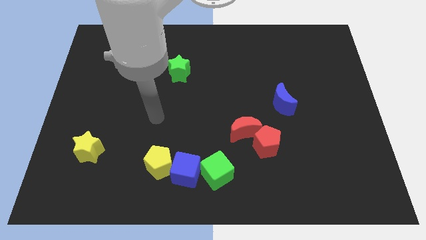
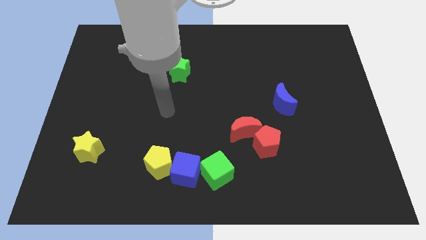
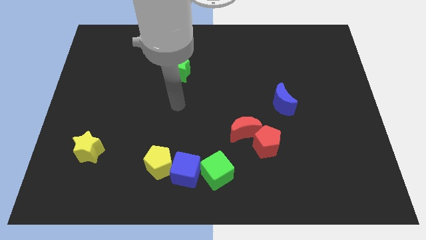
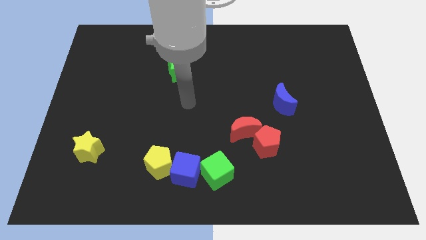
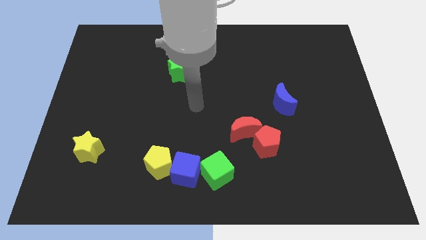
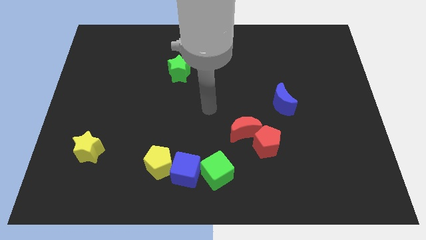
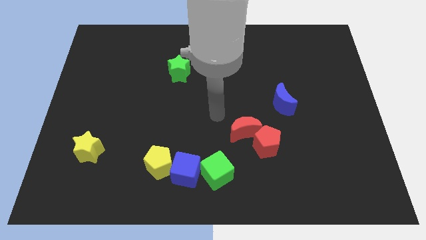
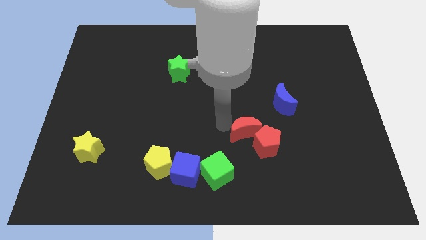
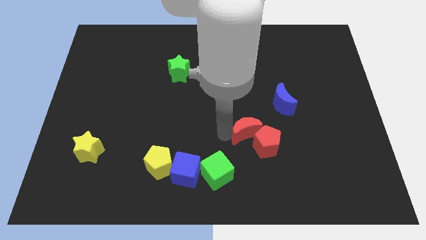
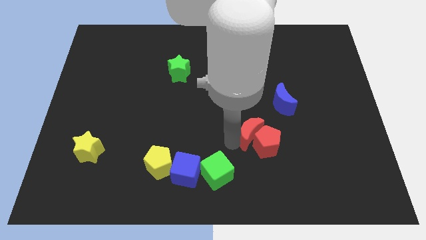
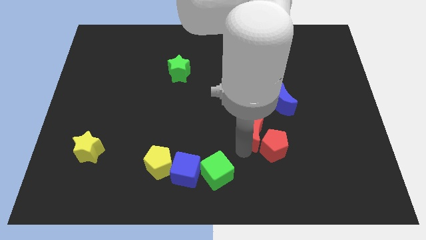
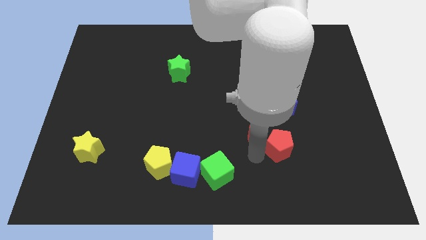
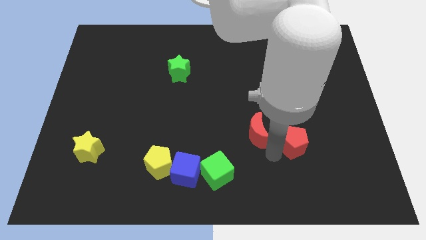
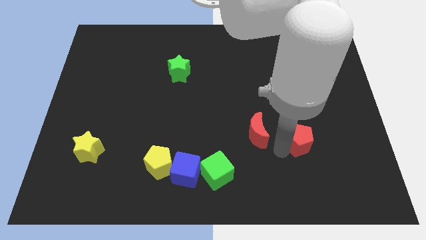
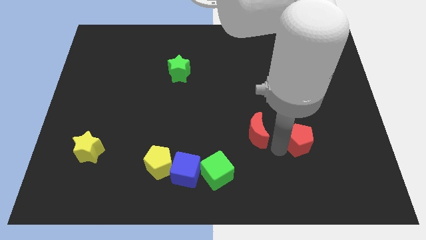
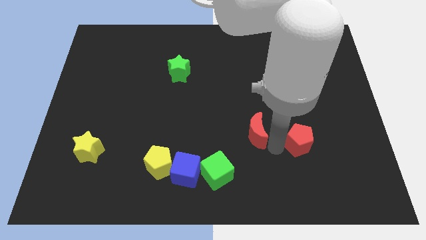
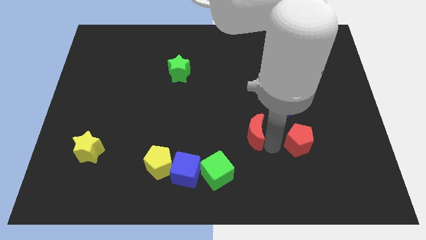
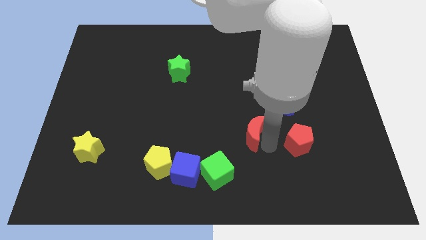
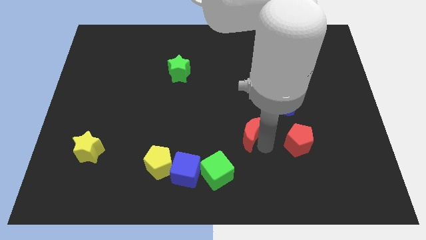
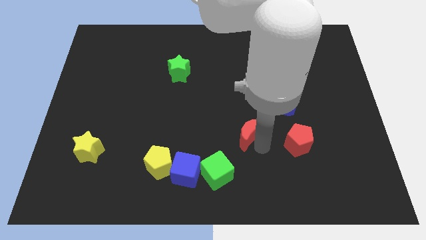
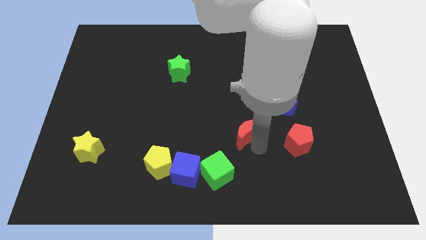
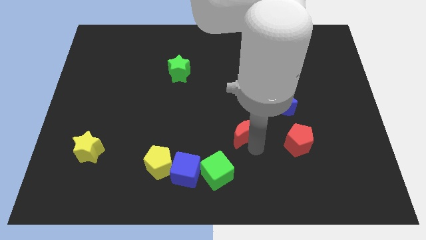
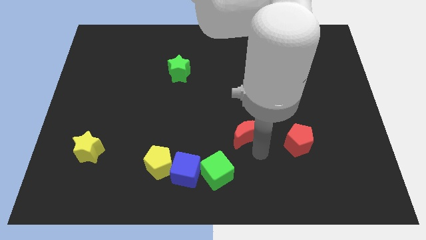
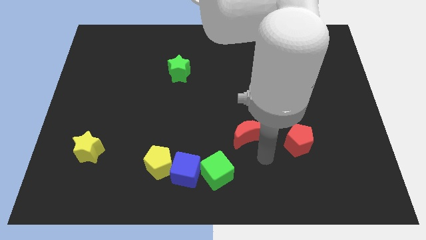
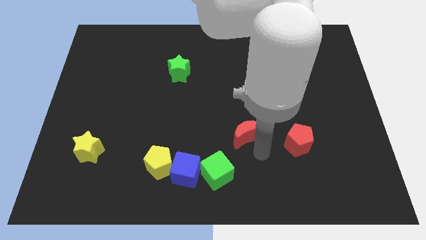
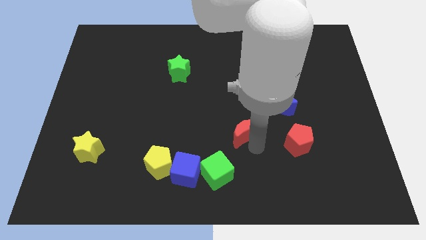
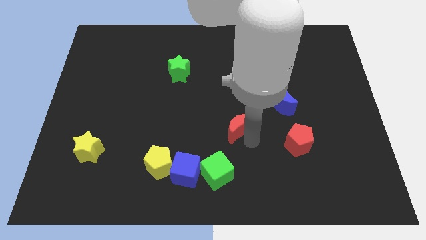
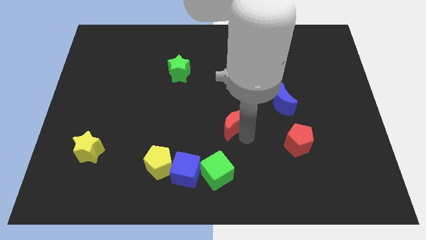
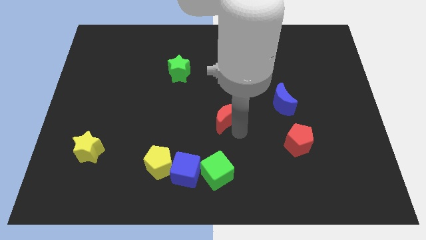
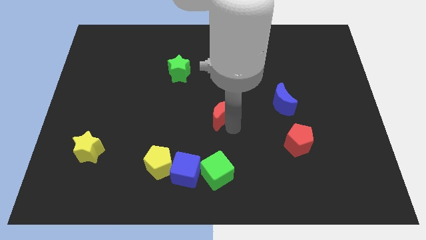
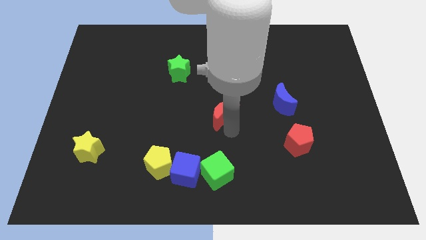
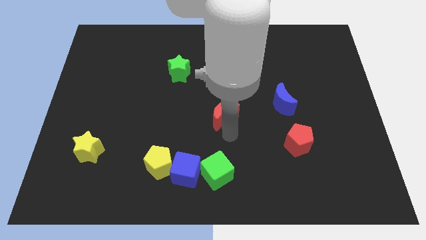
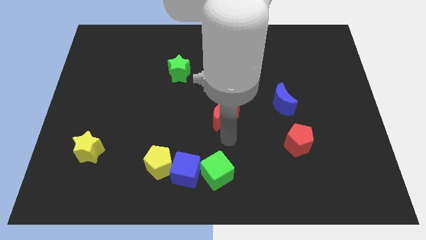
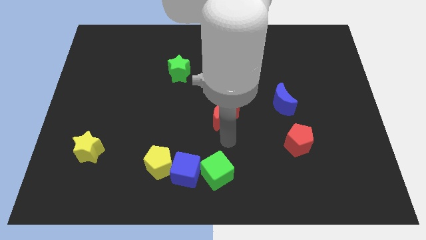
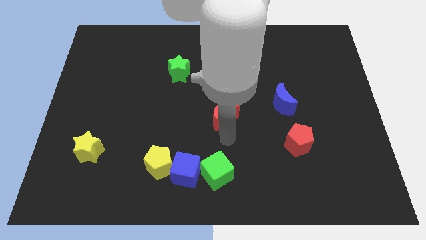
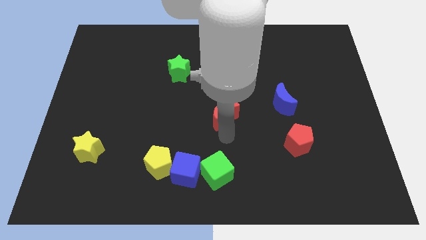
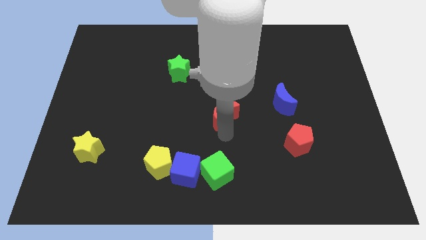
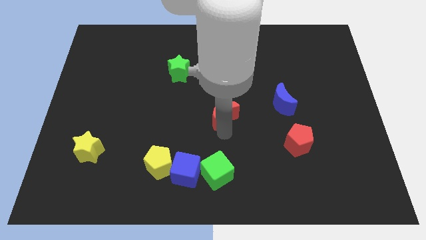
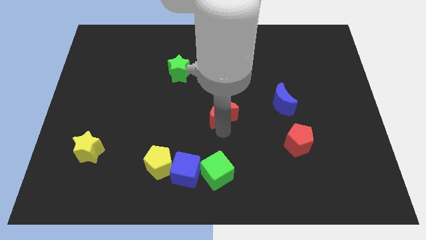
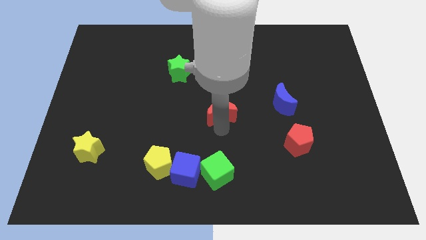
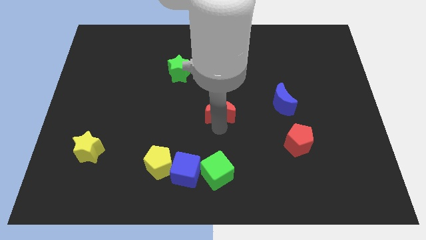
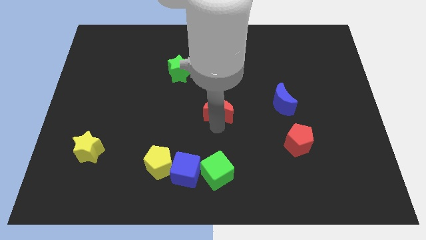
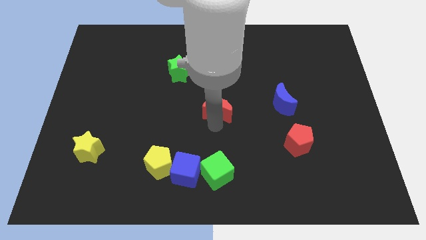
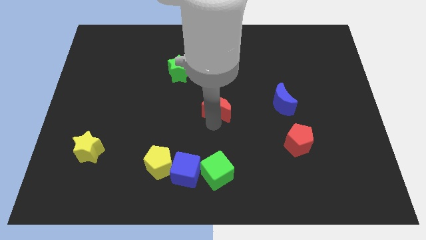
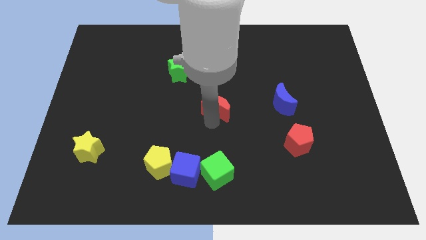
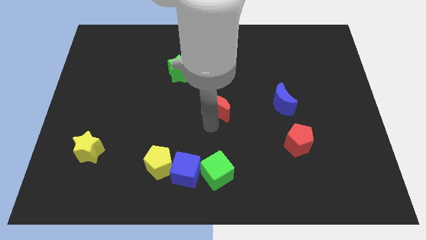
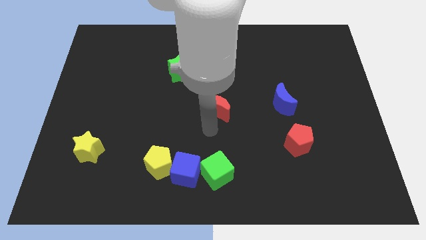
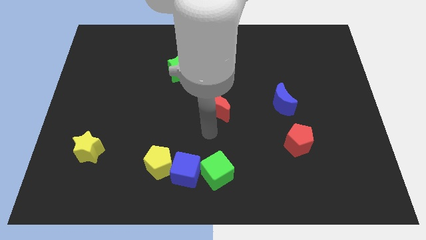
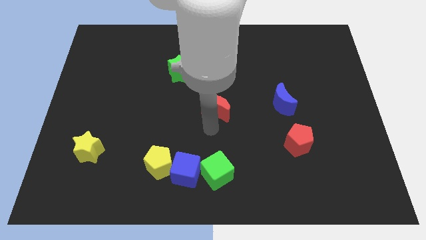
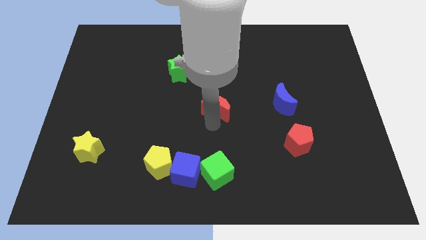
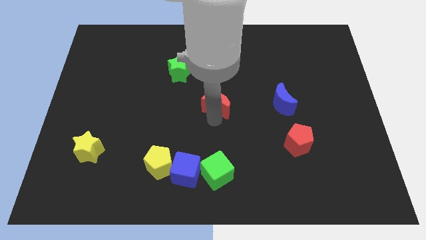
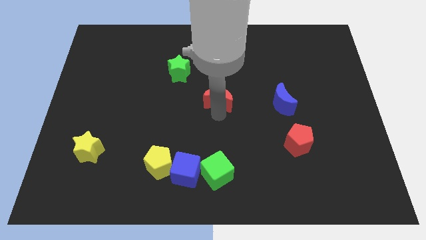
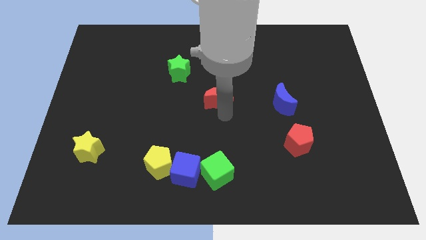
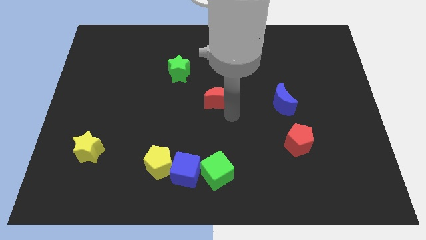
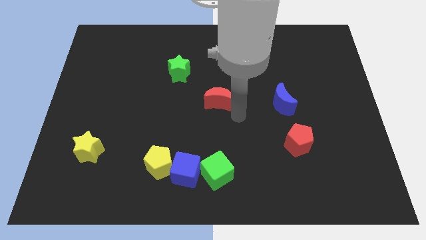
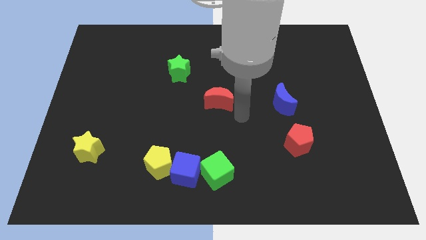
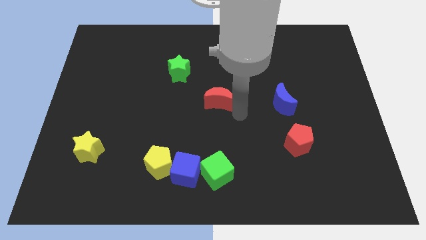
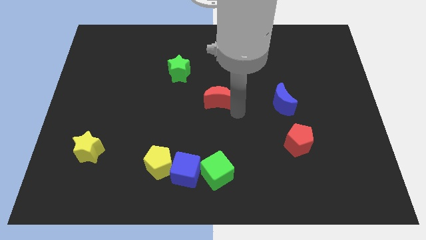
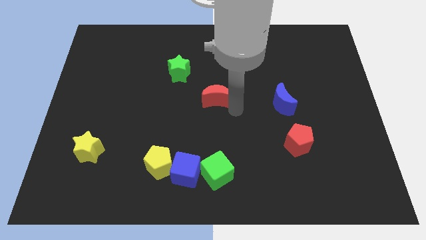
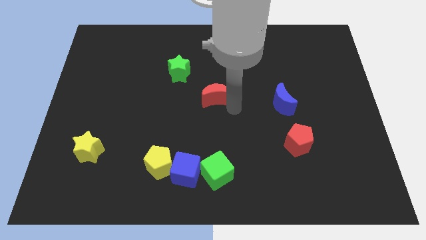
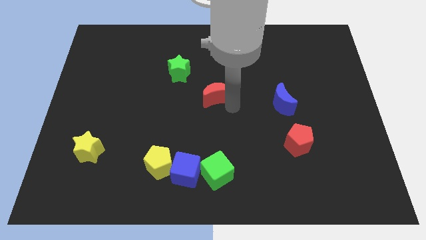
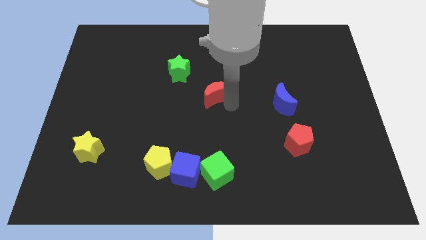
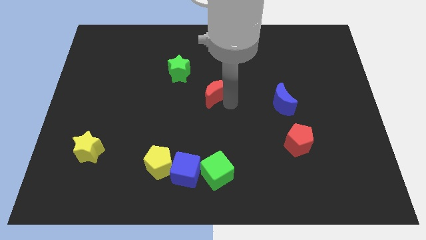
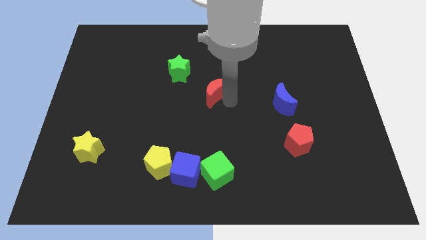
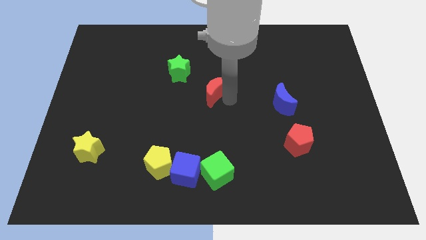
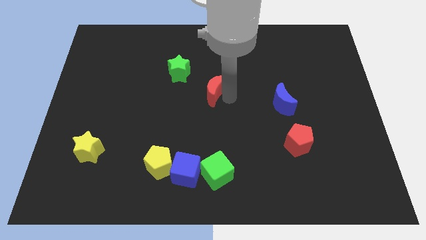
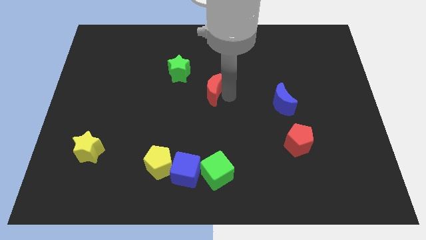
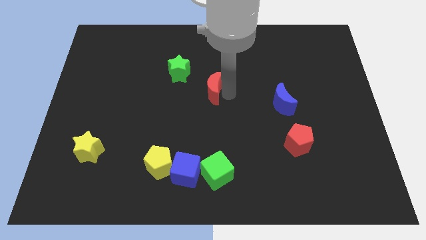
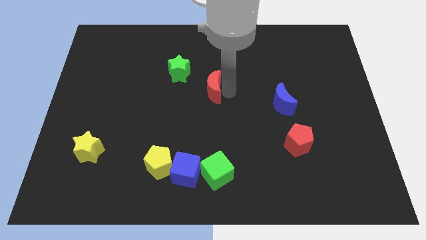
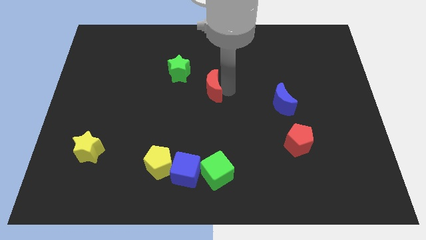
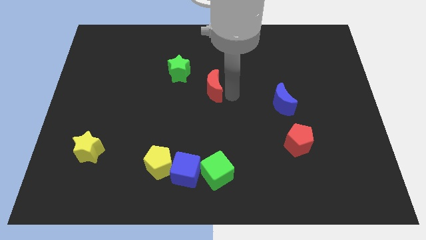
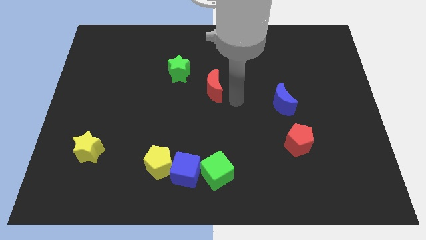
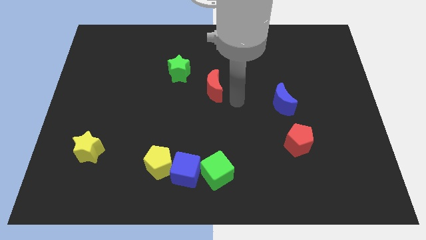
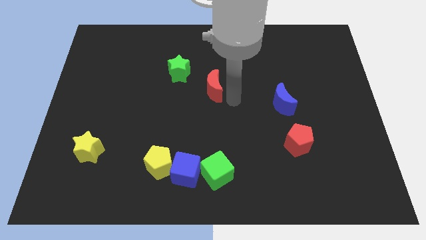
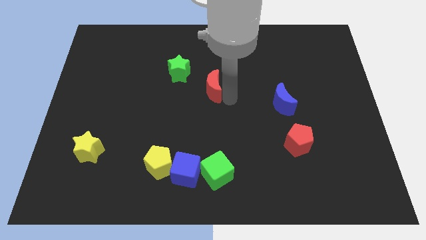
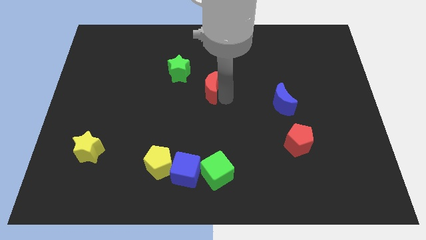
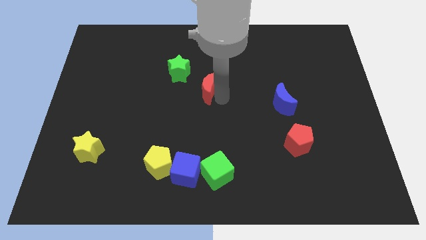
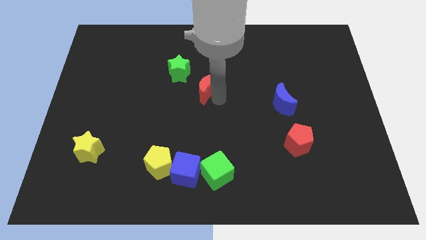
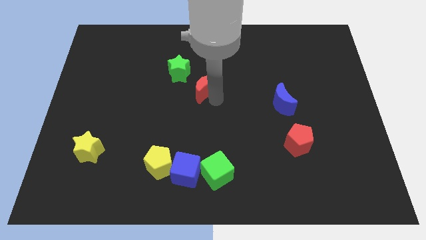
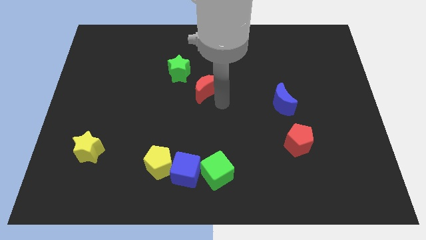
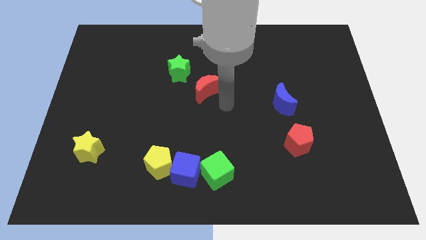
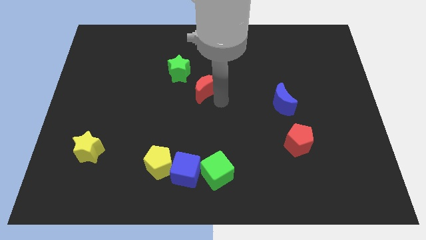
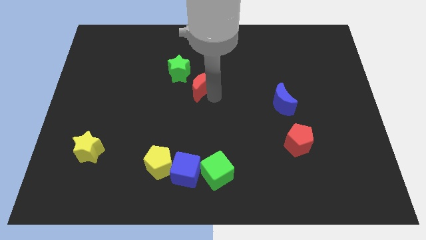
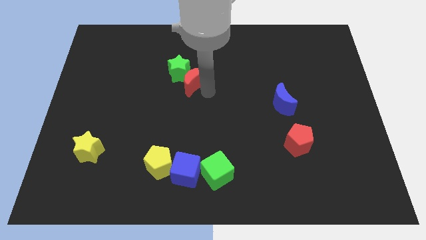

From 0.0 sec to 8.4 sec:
push the red moon close to the green star
